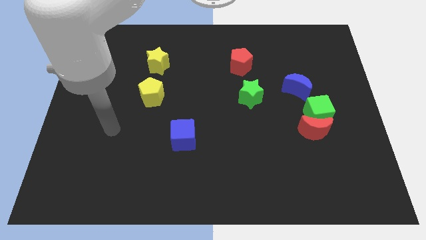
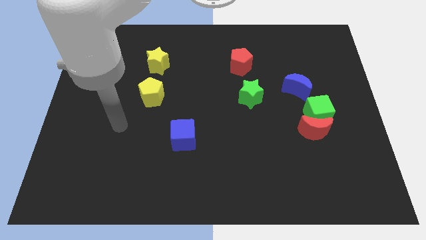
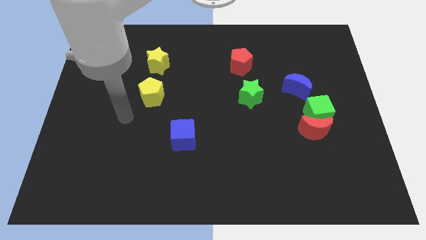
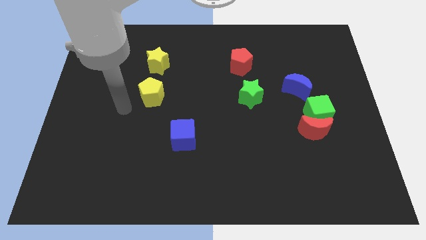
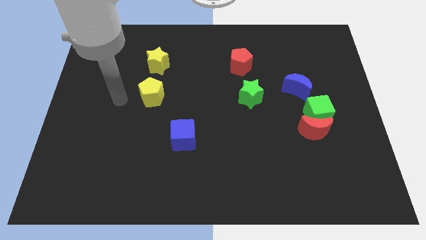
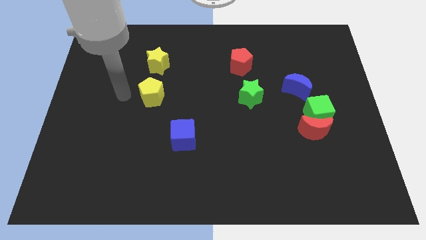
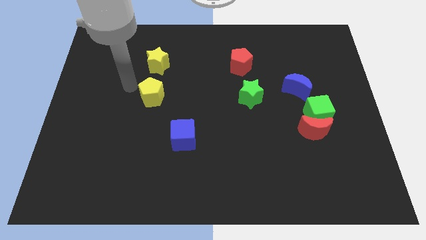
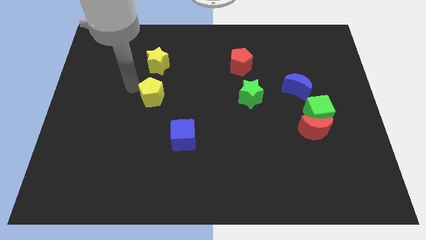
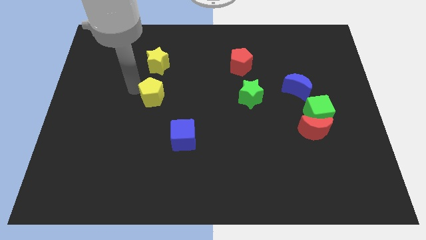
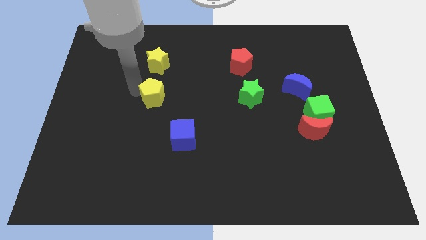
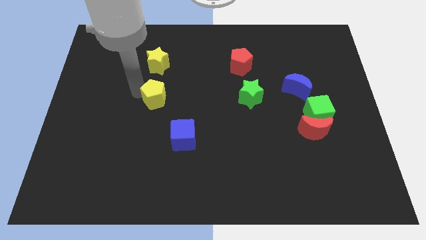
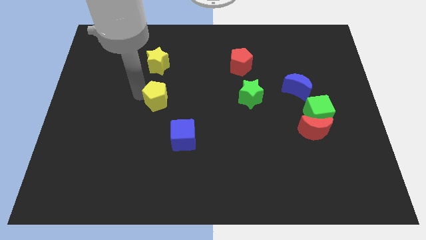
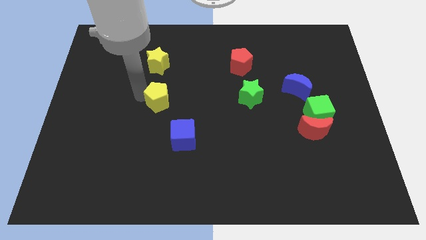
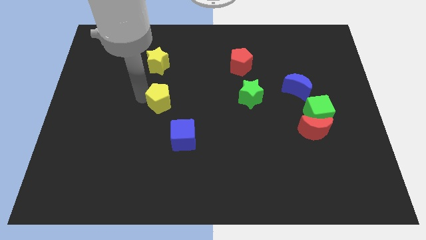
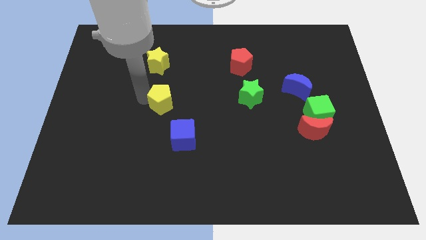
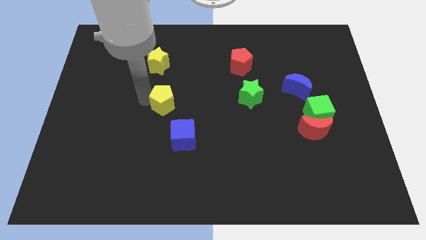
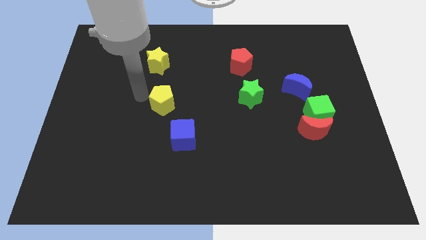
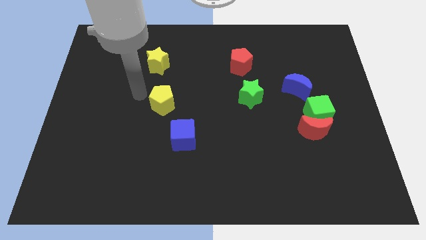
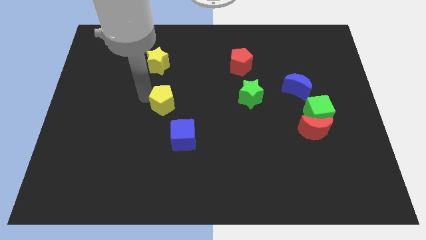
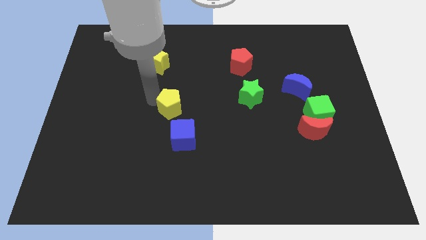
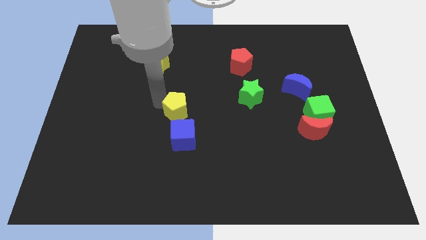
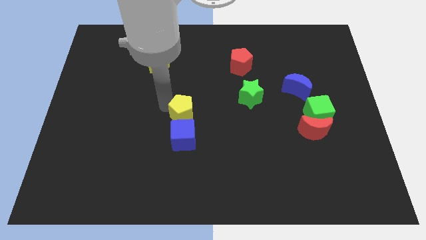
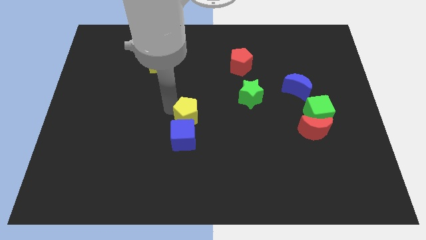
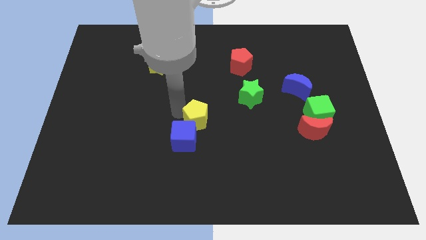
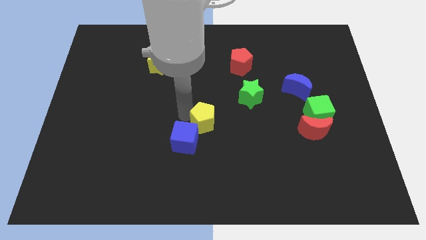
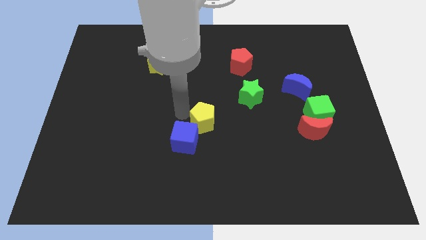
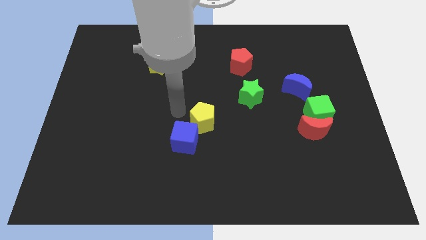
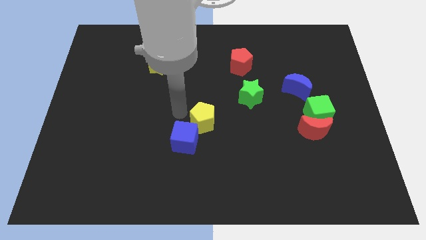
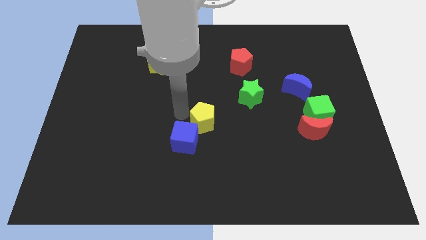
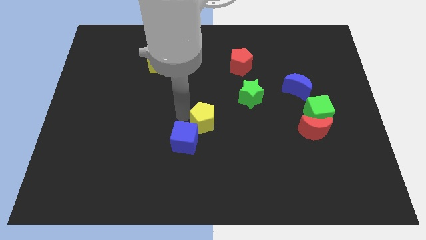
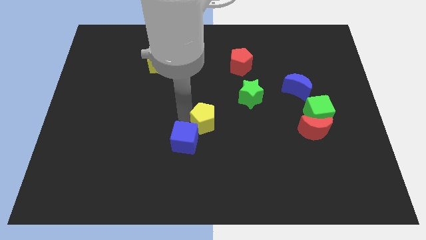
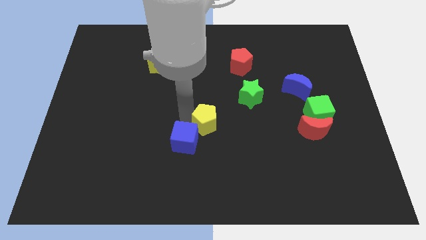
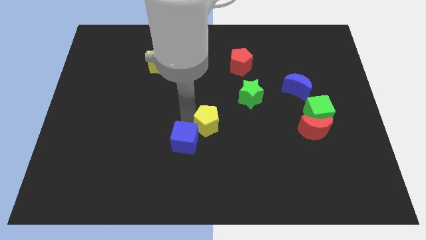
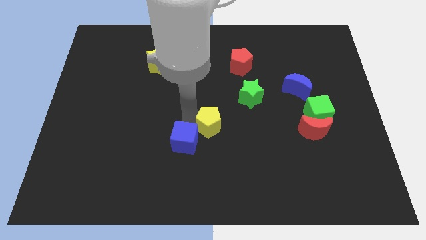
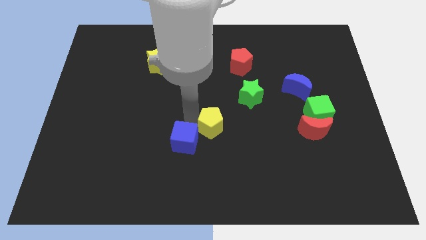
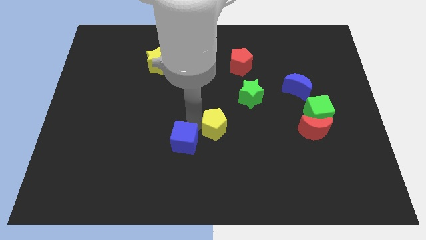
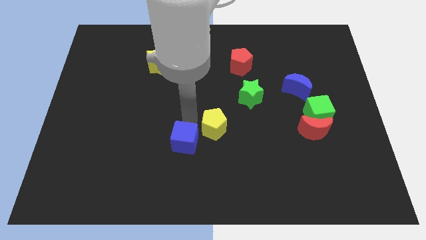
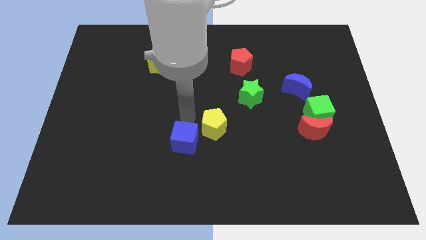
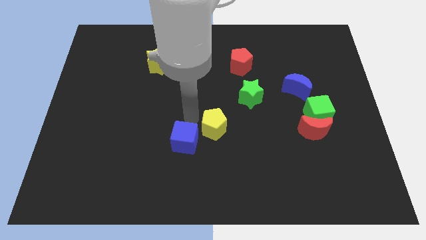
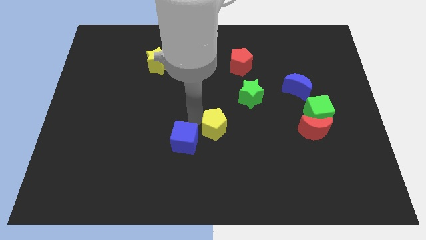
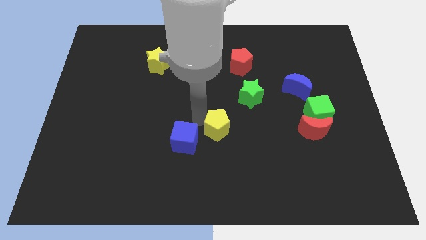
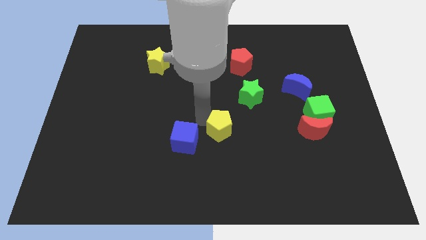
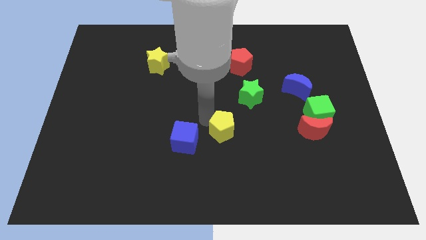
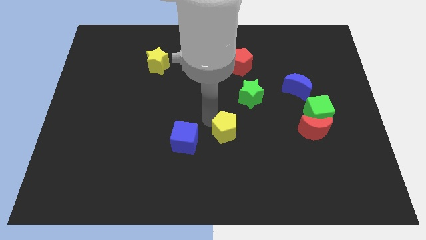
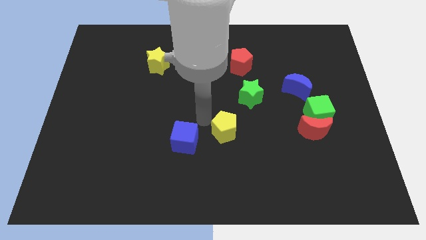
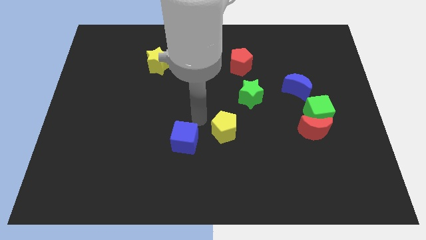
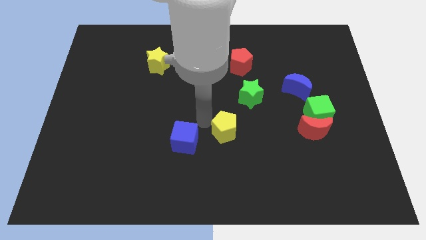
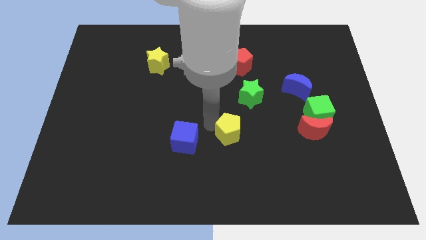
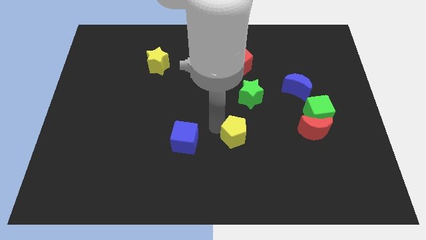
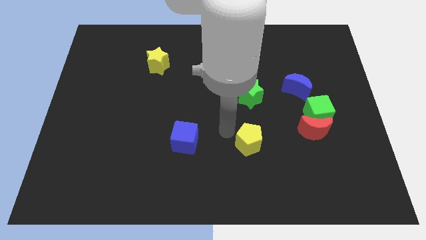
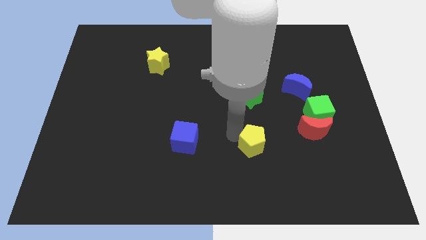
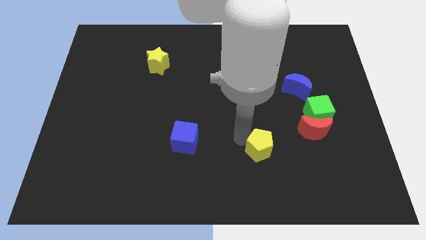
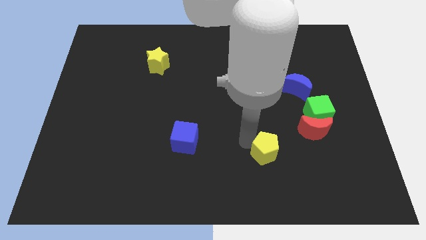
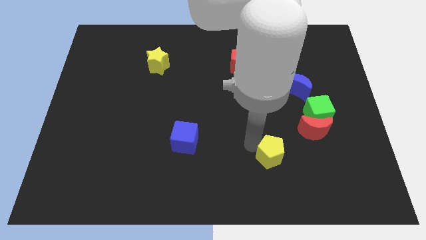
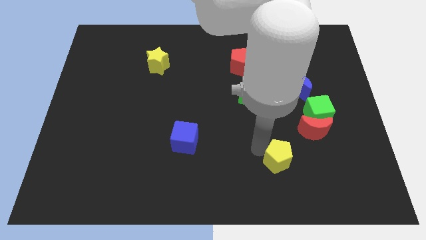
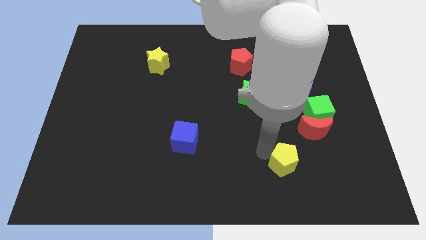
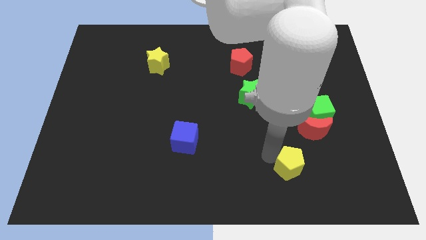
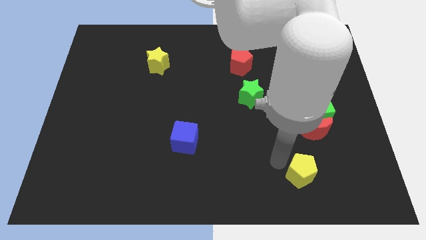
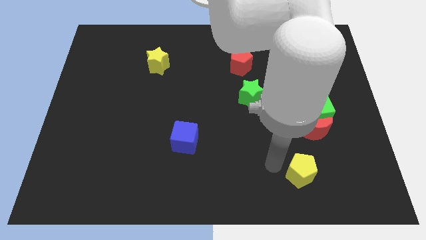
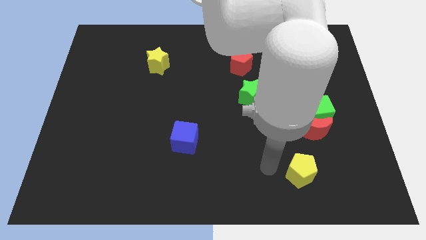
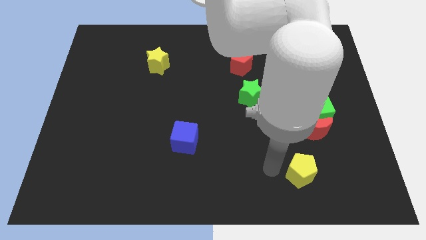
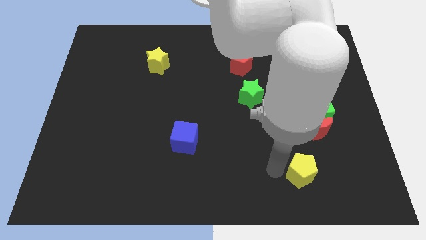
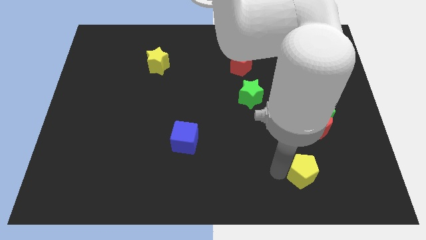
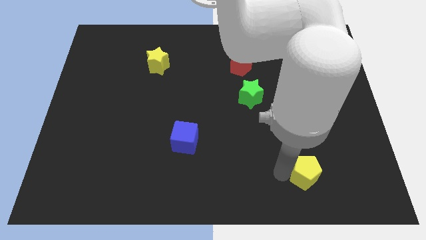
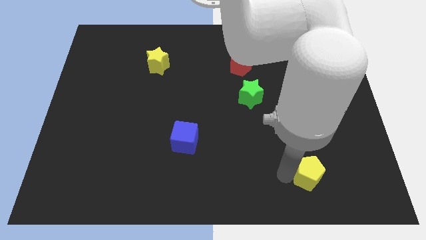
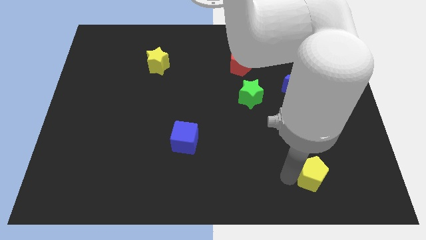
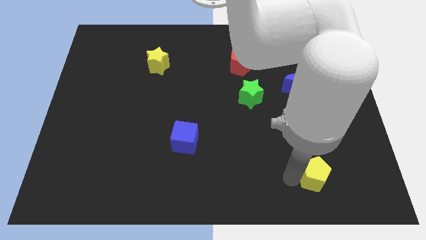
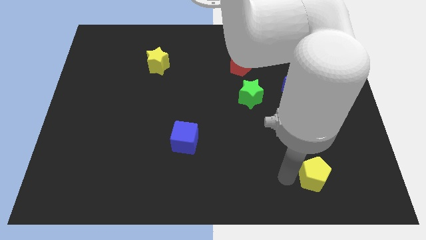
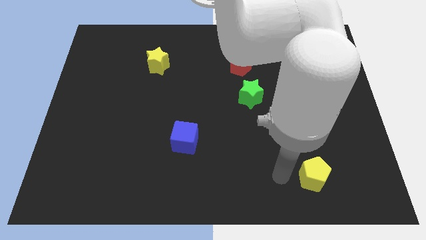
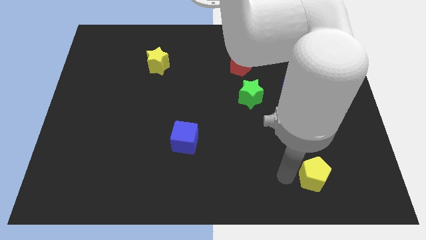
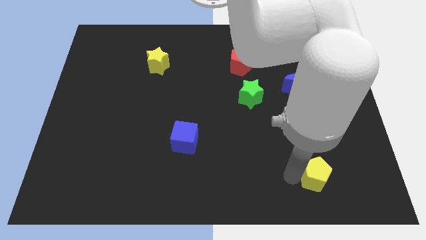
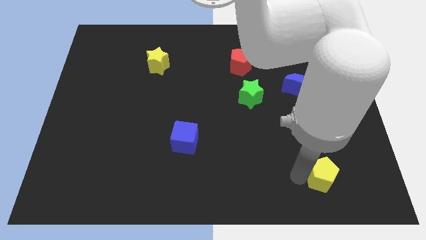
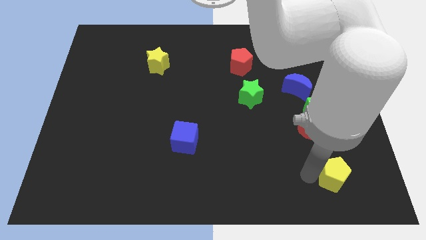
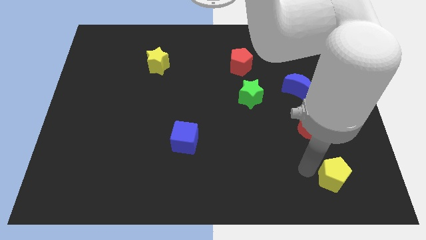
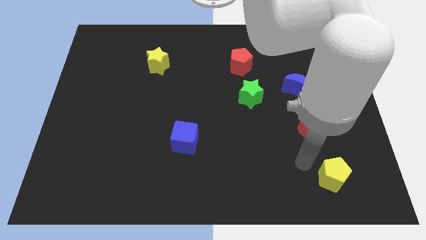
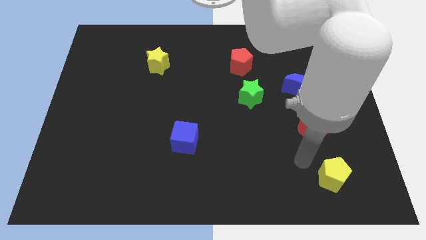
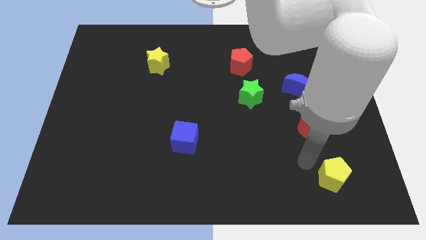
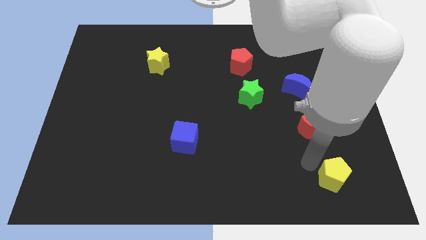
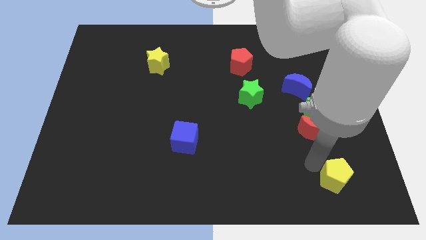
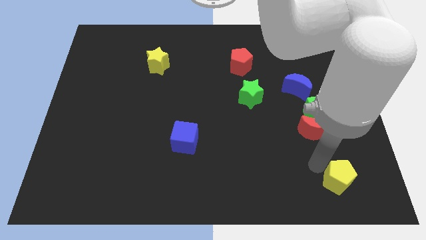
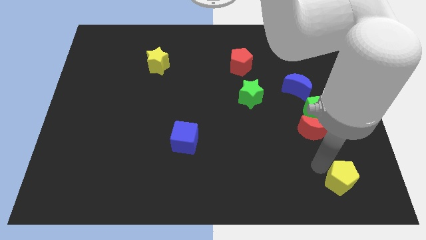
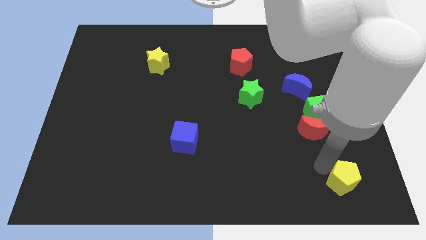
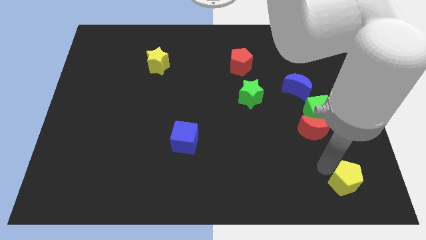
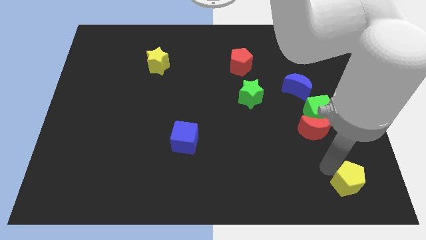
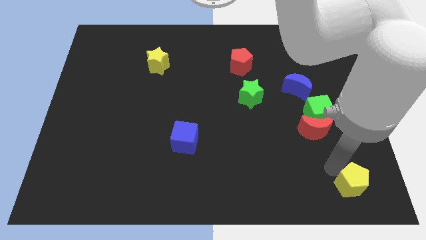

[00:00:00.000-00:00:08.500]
put the yellow pentagon to the bottom right corner
